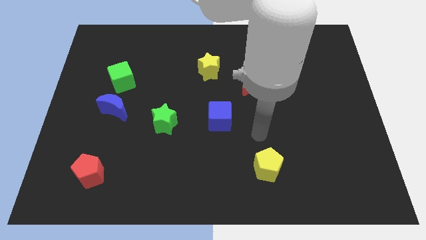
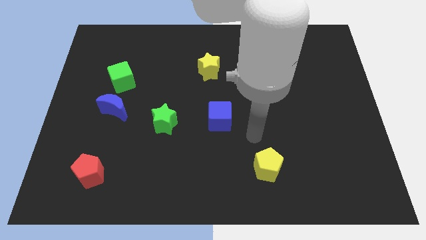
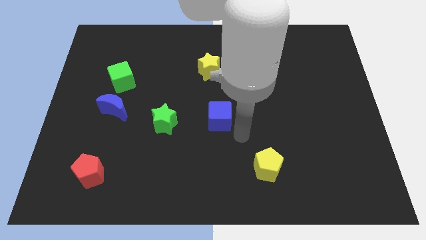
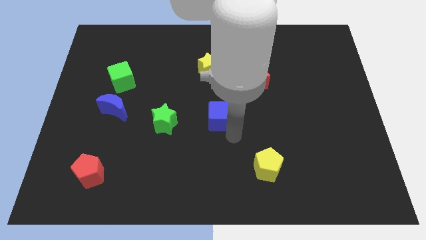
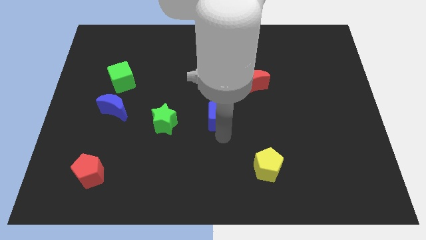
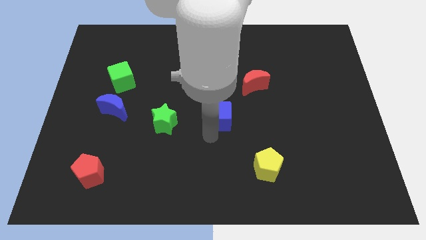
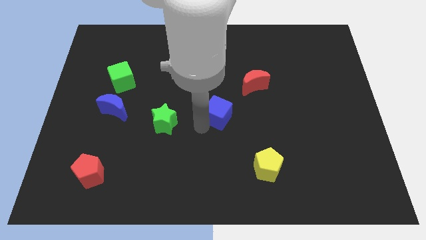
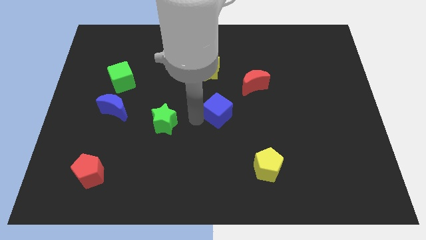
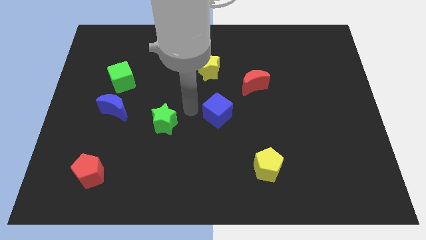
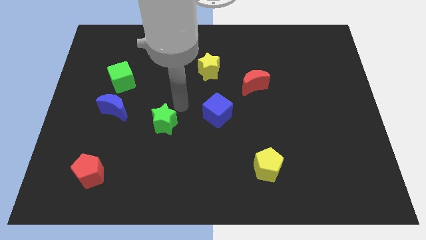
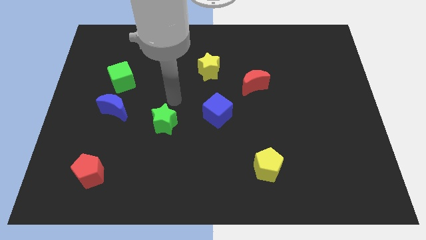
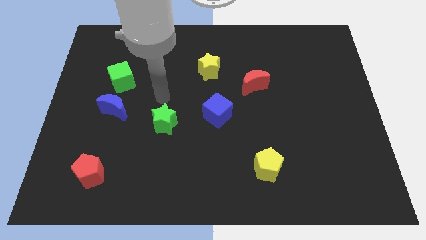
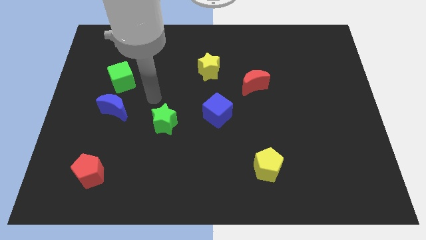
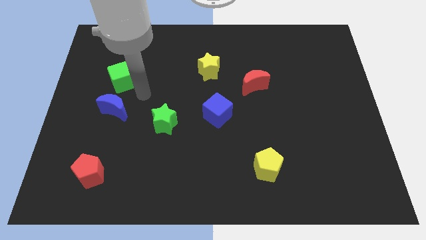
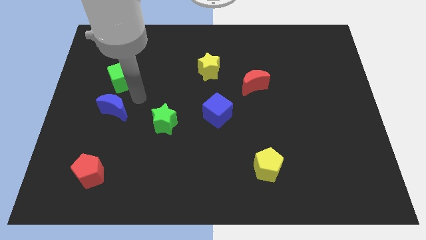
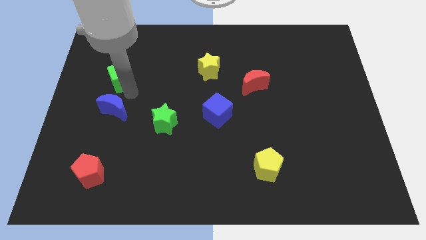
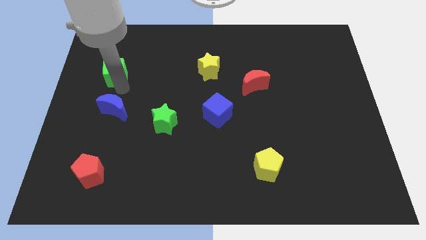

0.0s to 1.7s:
separate the blue moon from the green cube

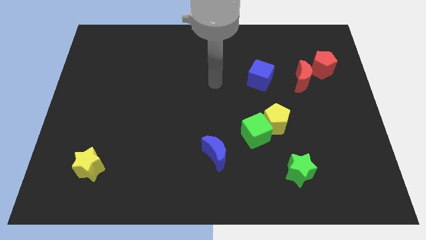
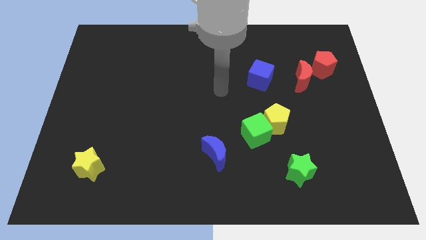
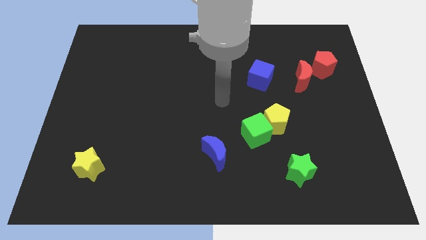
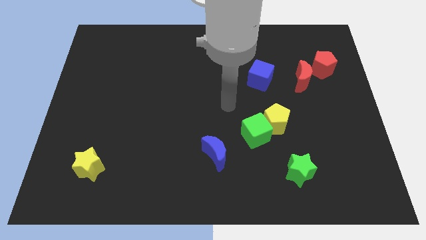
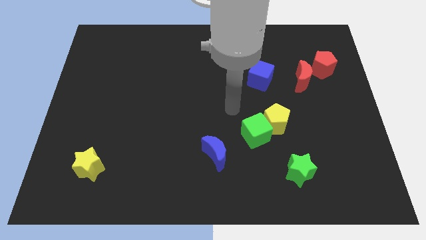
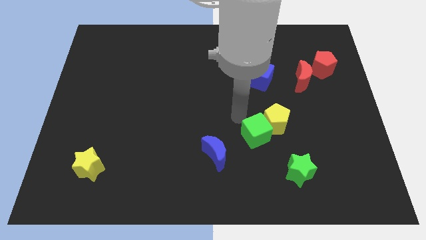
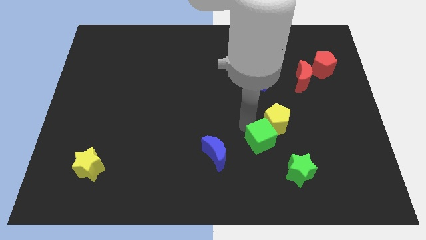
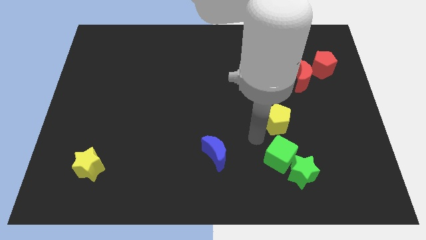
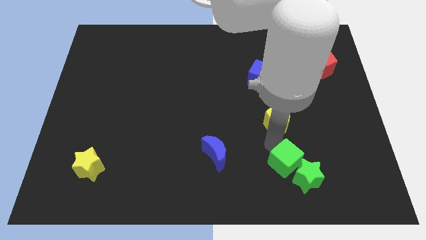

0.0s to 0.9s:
separate the yellow pentagon from the green cube

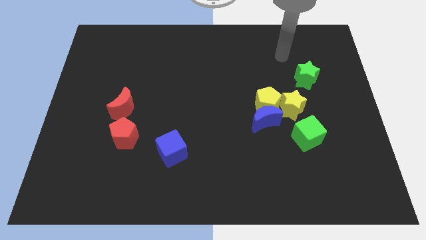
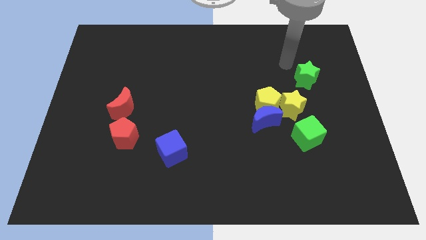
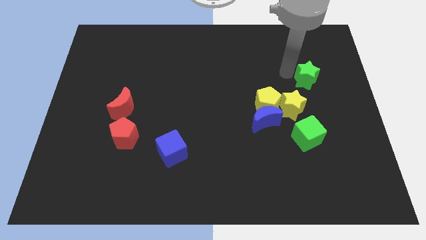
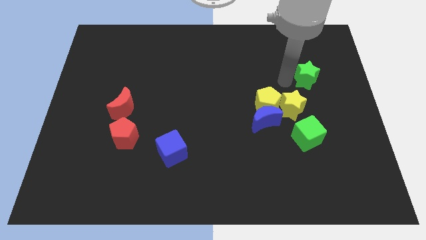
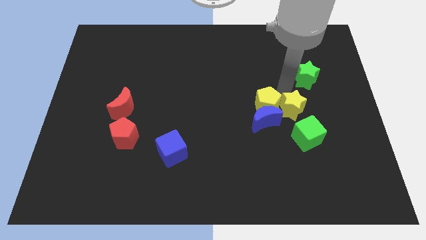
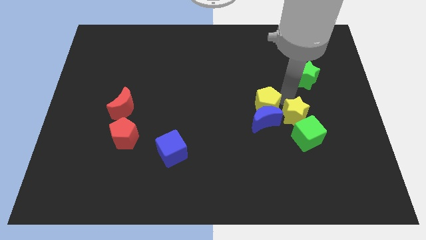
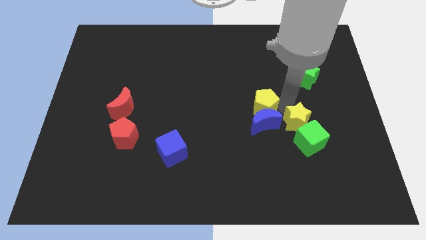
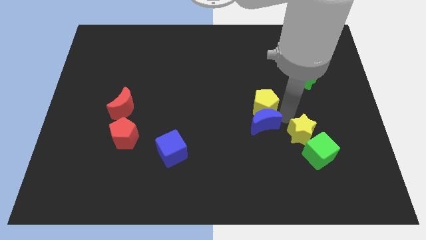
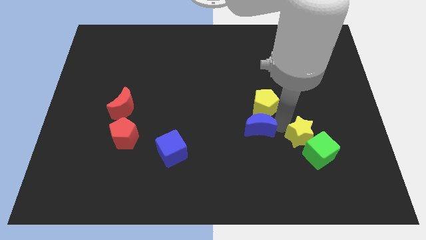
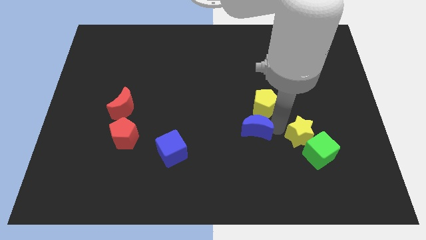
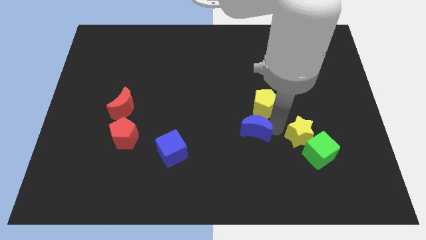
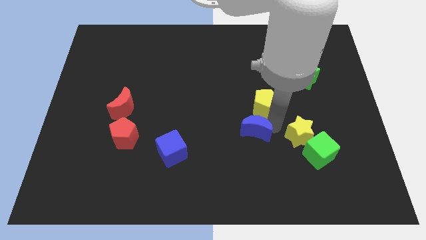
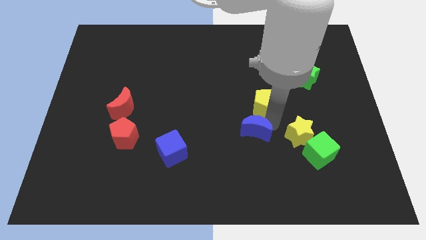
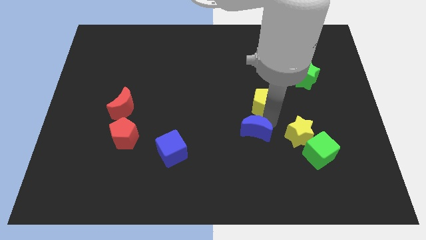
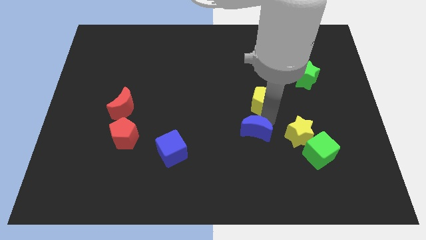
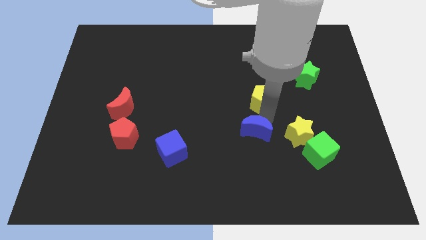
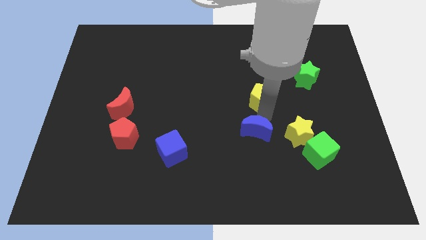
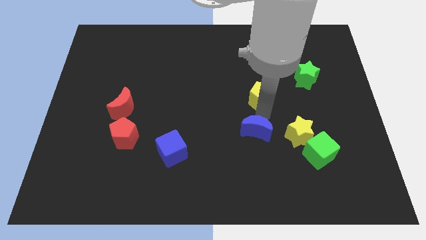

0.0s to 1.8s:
move the yellow pentagon away from the blue moon and yellow star

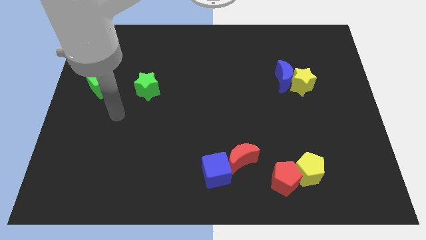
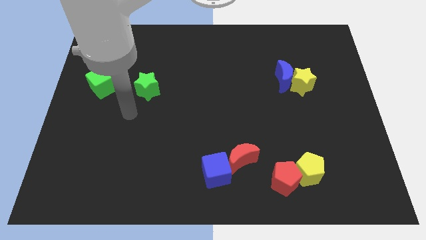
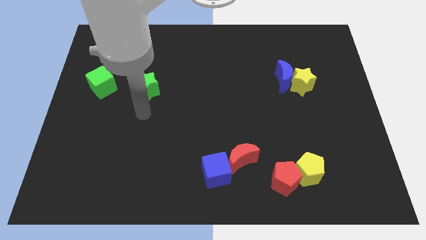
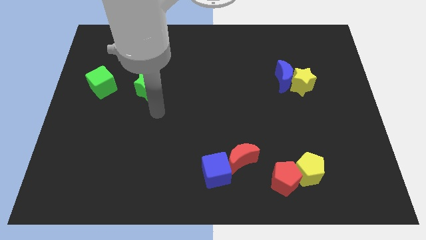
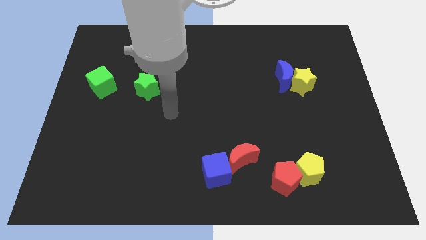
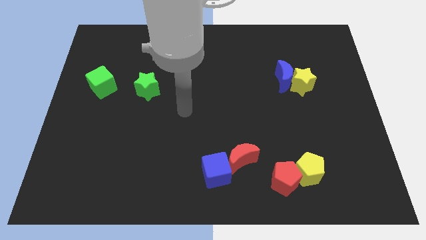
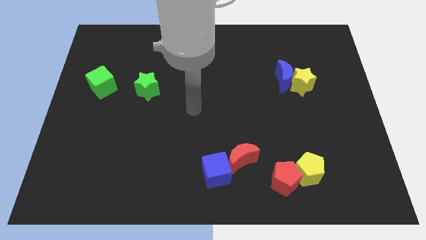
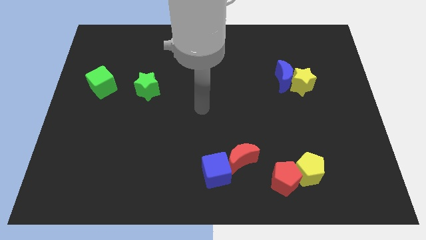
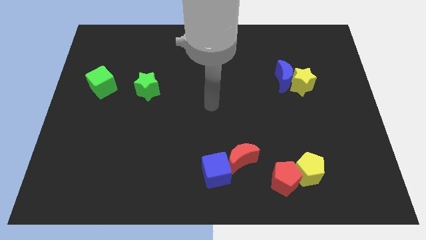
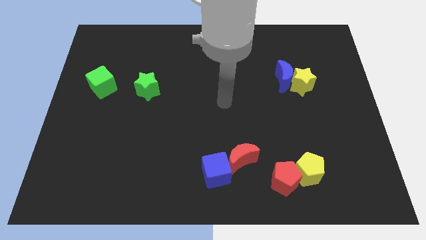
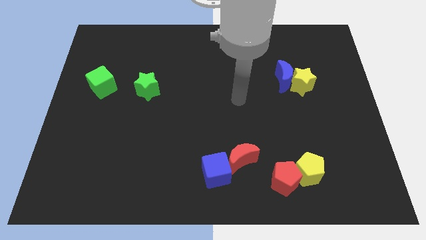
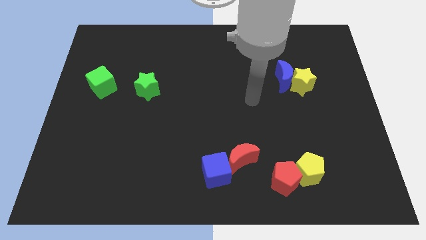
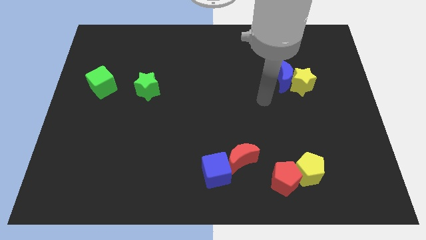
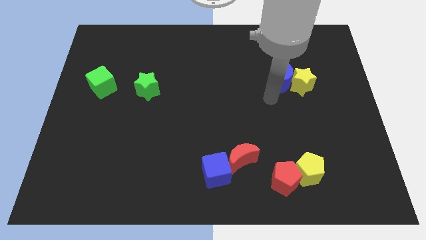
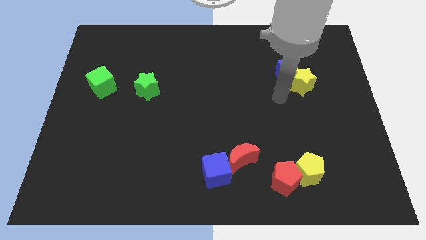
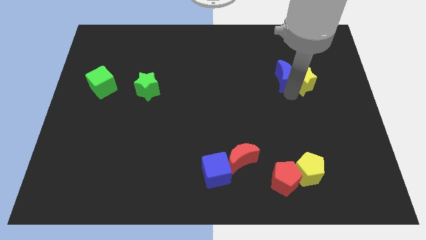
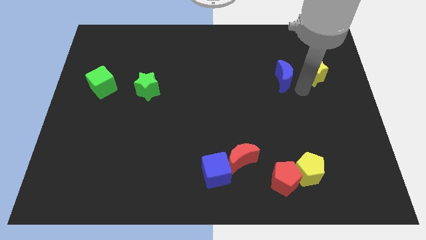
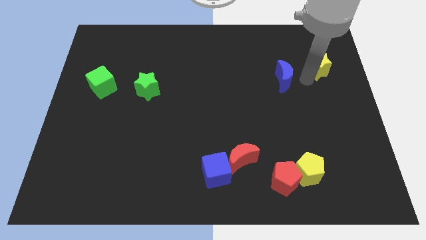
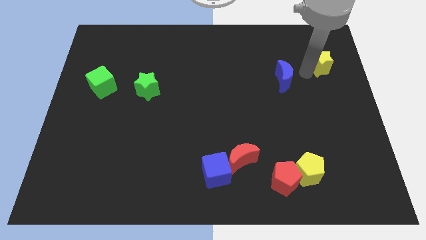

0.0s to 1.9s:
pull the blue moon apart from the yellow star

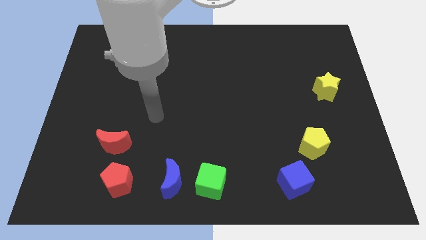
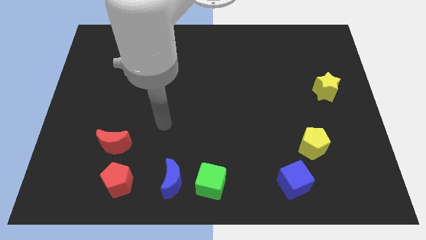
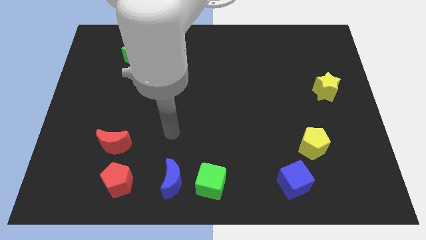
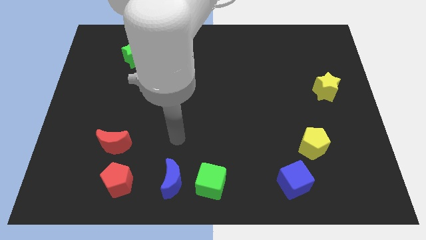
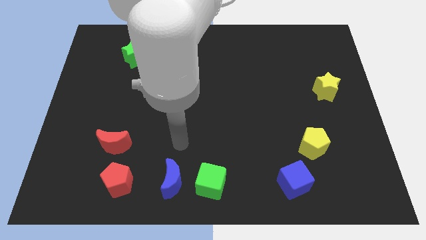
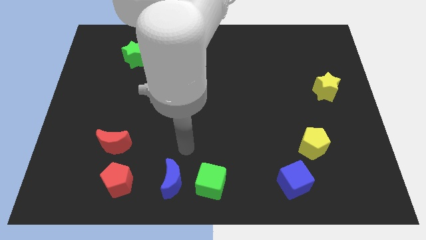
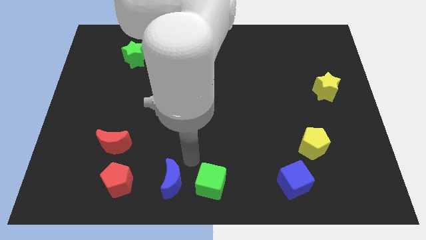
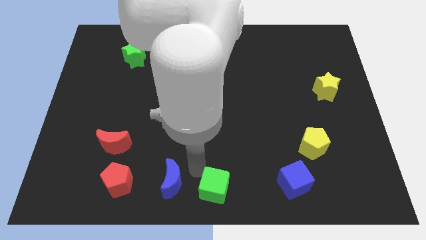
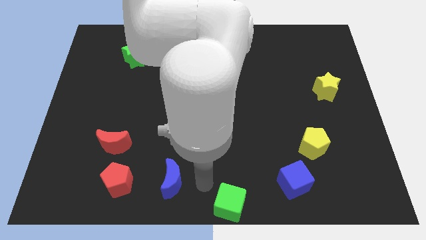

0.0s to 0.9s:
move the blue moon away from the green cube

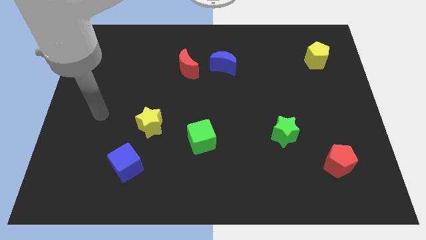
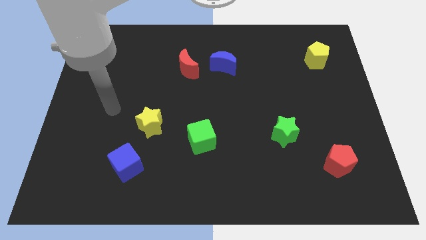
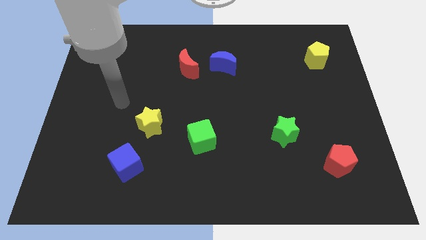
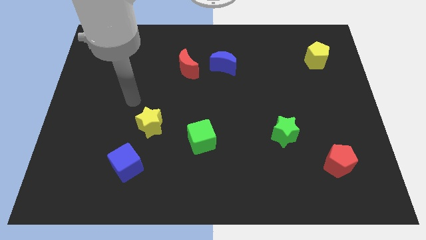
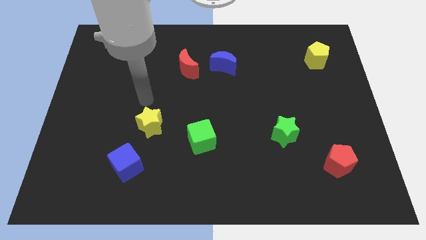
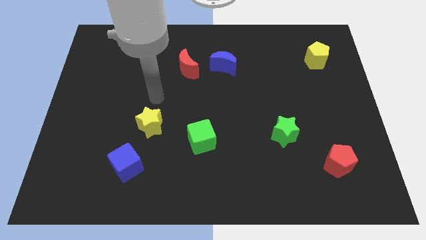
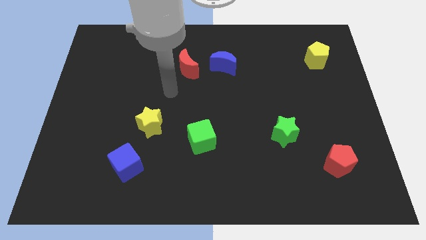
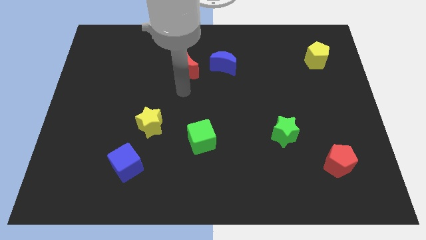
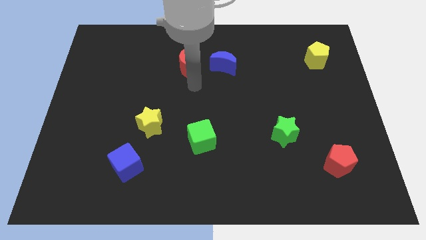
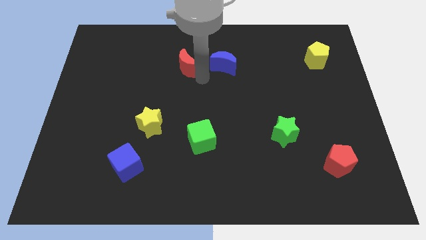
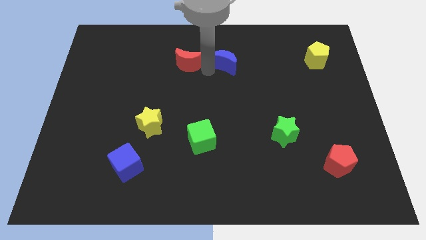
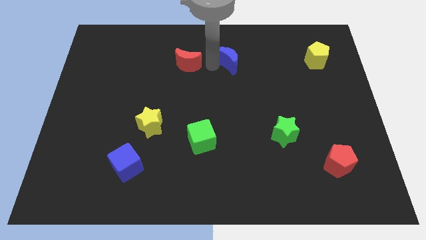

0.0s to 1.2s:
separate the red moon from the blue moon

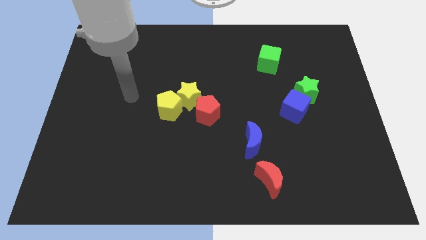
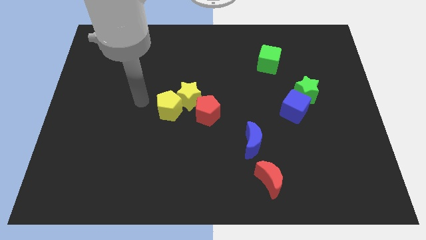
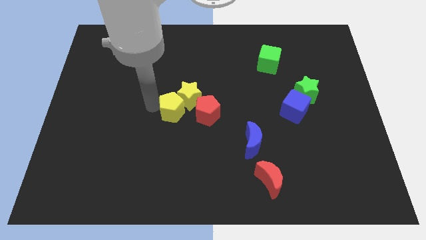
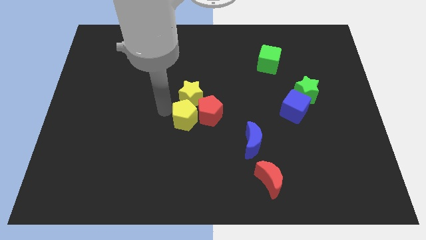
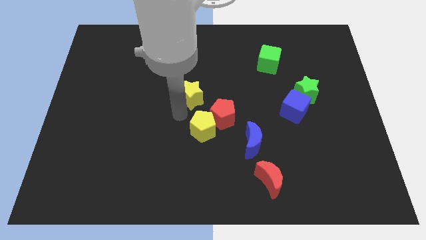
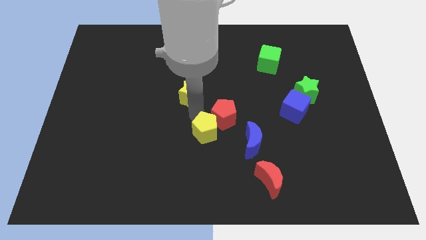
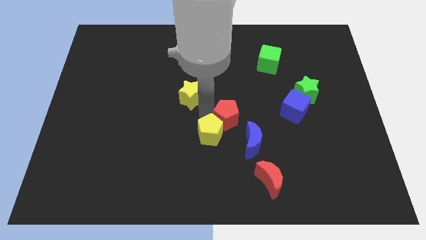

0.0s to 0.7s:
move the yellow star away from the yellow pentagon and red pentagon

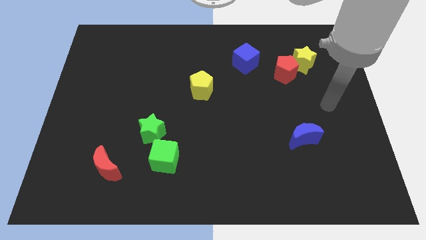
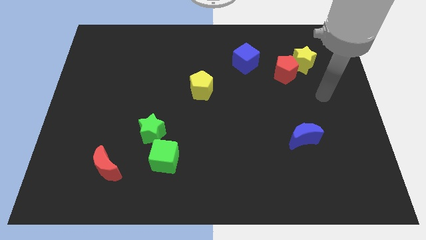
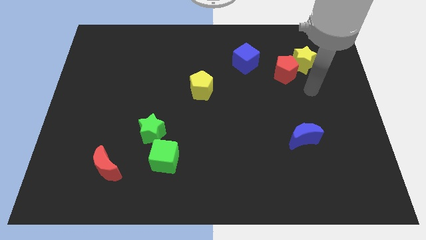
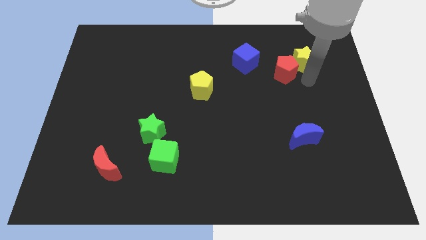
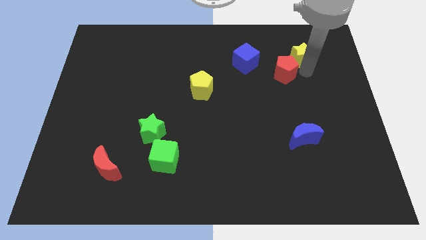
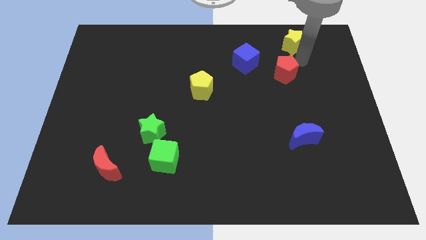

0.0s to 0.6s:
separate the red pentagon from the yellow star
